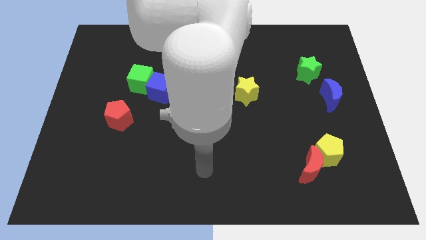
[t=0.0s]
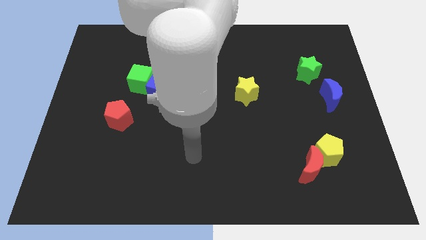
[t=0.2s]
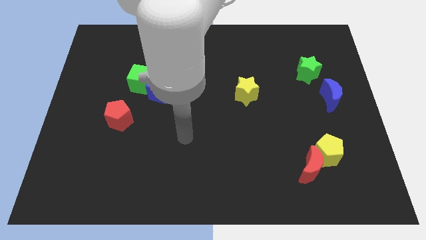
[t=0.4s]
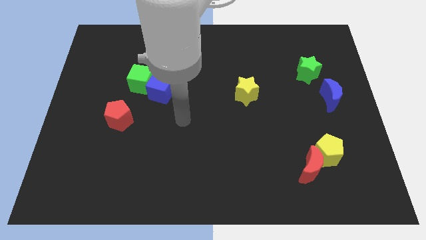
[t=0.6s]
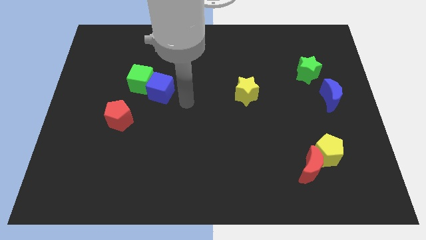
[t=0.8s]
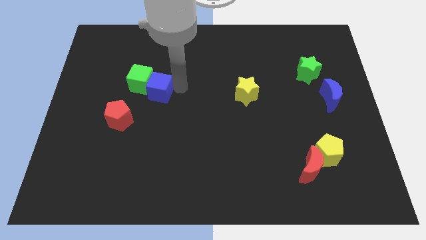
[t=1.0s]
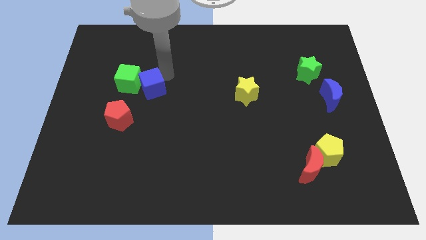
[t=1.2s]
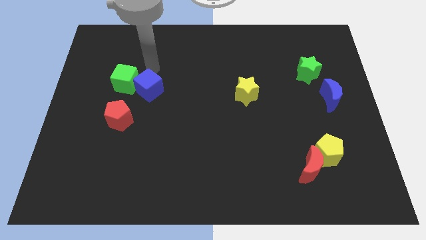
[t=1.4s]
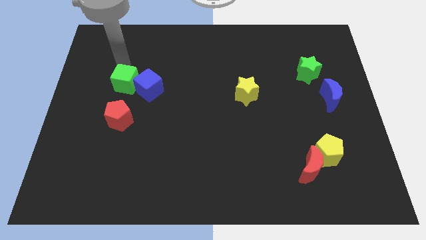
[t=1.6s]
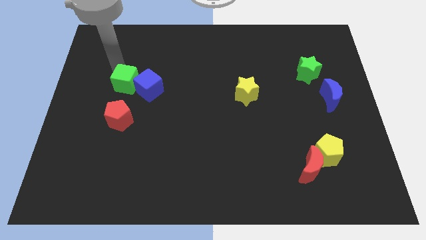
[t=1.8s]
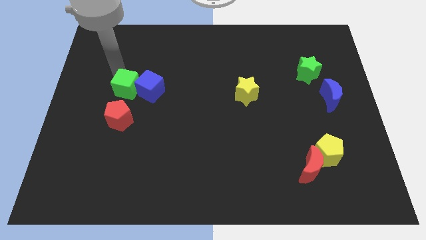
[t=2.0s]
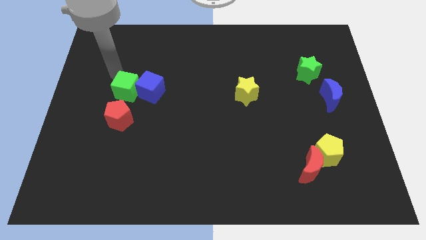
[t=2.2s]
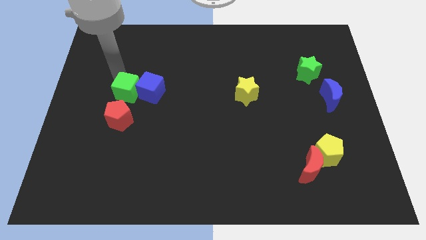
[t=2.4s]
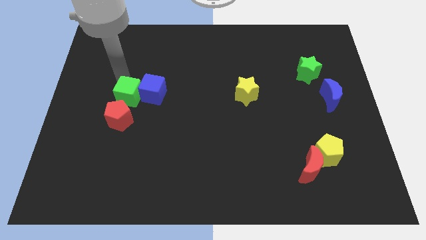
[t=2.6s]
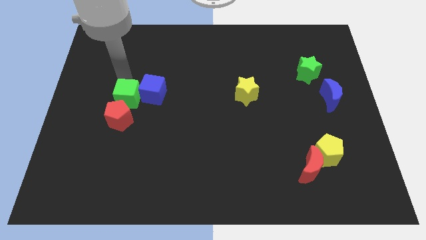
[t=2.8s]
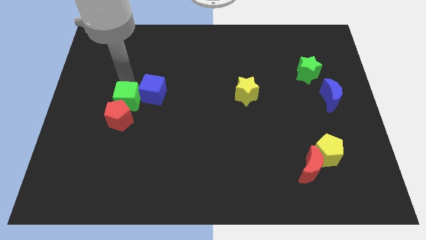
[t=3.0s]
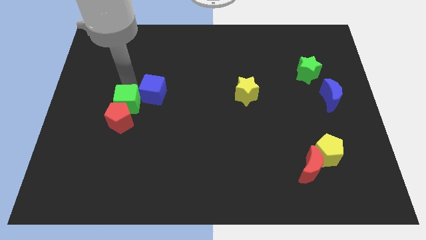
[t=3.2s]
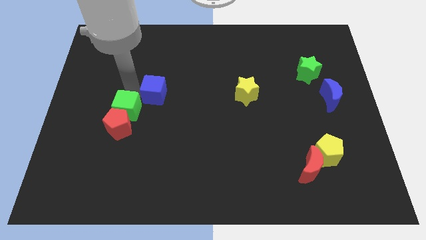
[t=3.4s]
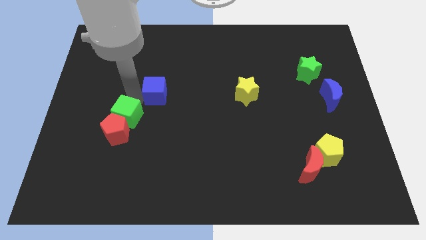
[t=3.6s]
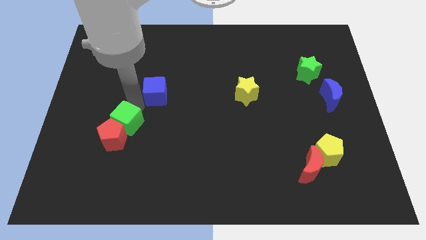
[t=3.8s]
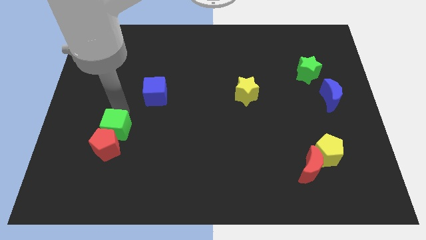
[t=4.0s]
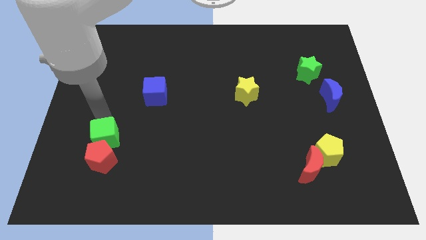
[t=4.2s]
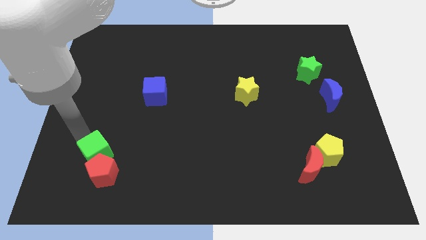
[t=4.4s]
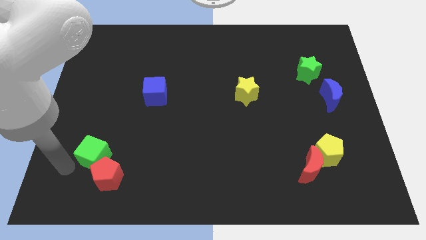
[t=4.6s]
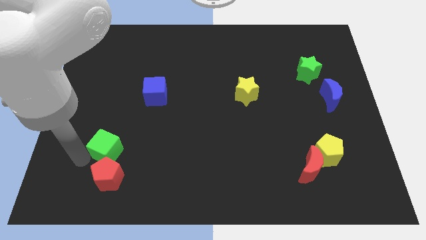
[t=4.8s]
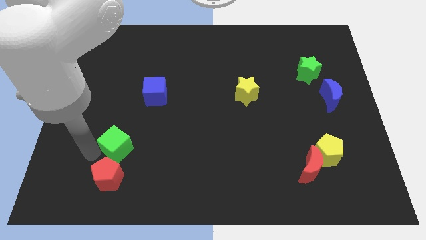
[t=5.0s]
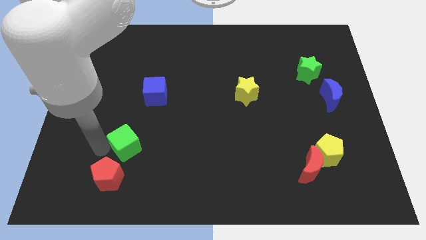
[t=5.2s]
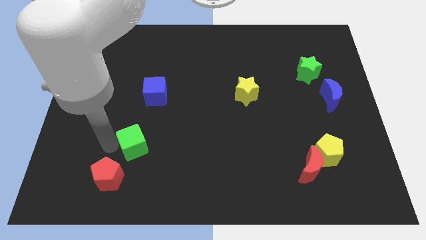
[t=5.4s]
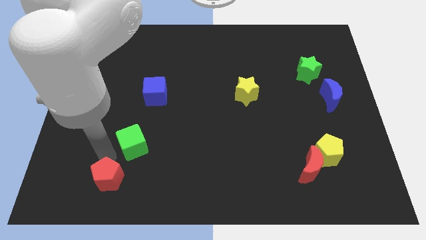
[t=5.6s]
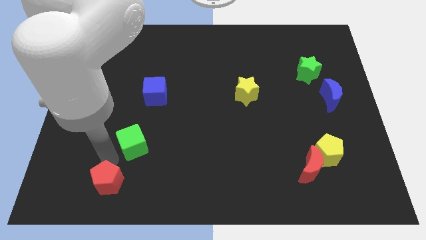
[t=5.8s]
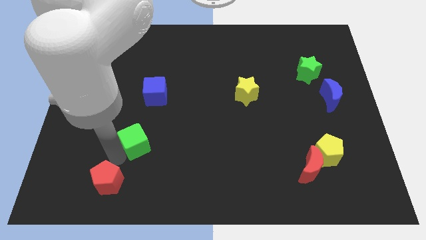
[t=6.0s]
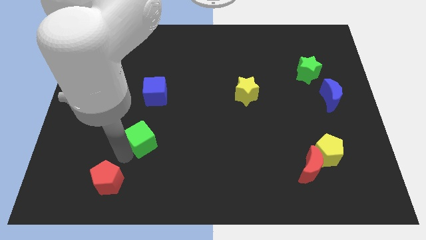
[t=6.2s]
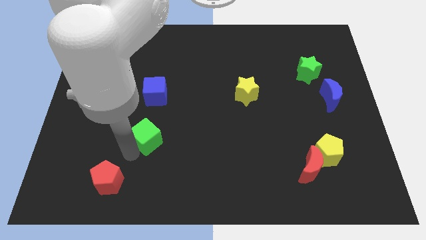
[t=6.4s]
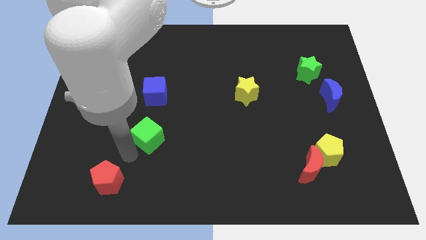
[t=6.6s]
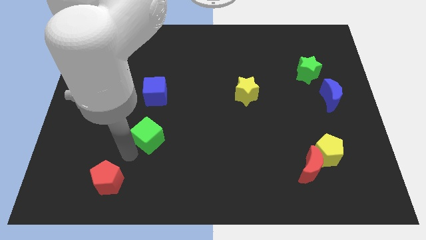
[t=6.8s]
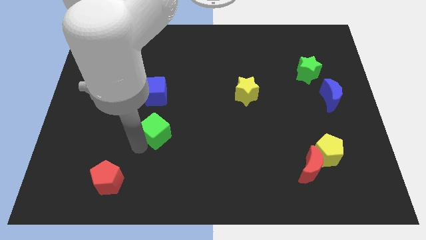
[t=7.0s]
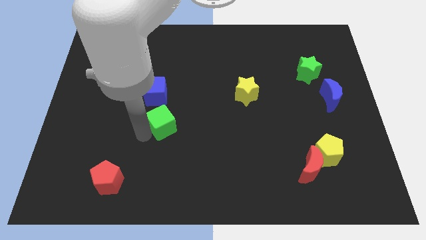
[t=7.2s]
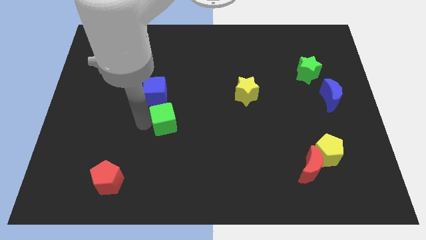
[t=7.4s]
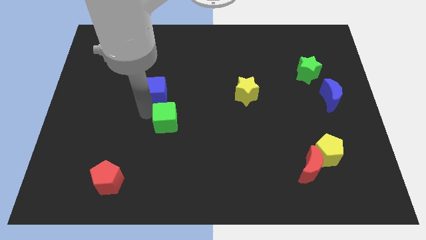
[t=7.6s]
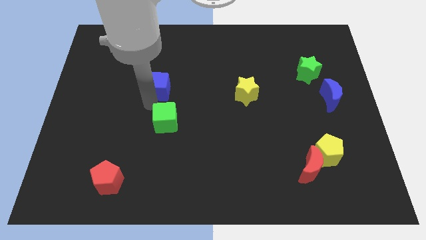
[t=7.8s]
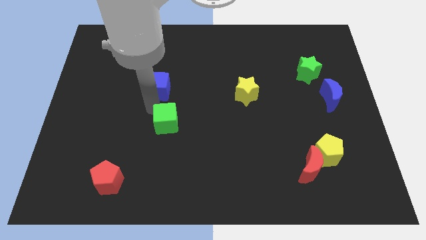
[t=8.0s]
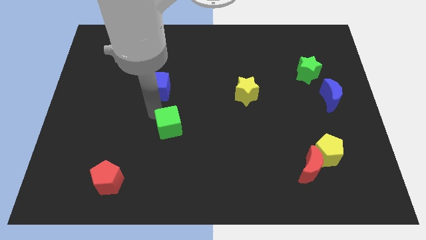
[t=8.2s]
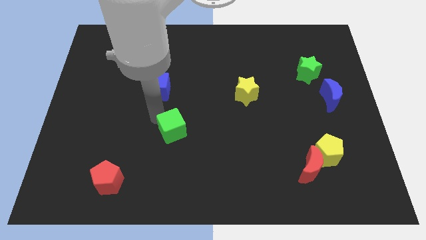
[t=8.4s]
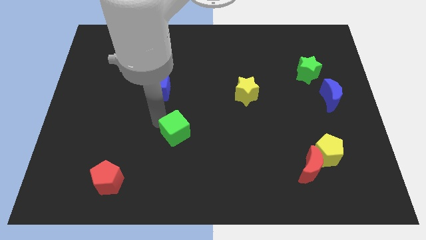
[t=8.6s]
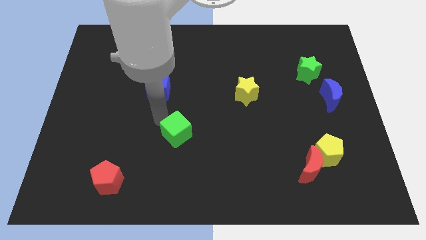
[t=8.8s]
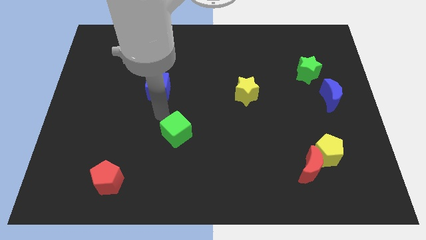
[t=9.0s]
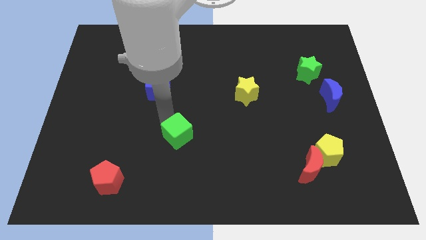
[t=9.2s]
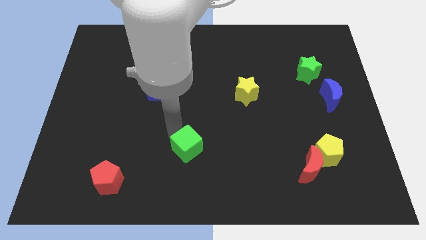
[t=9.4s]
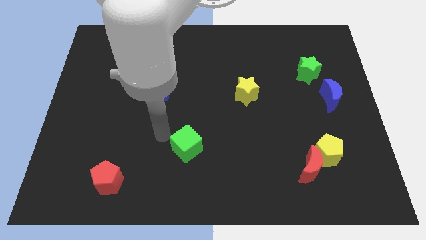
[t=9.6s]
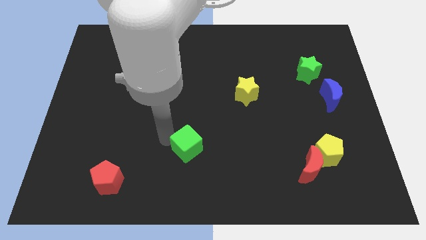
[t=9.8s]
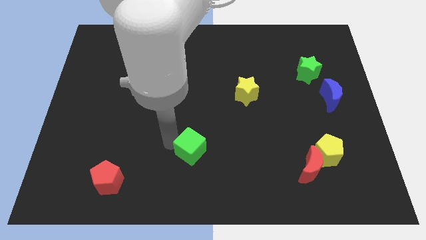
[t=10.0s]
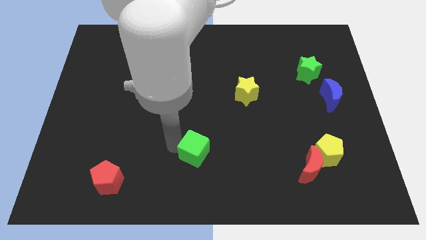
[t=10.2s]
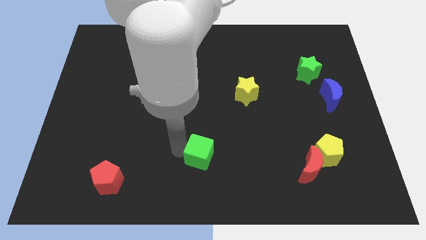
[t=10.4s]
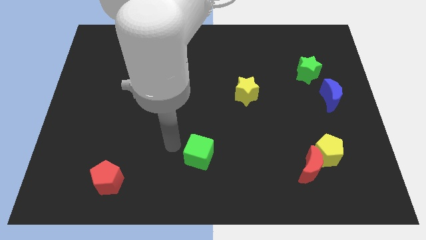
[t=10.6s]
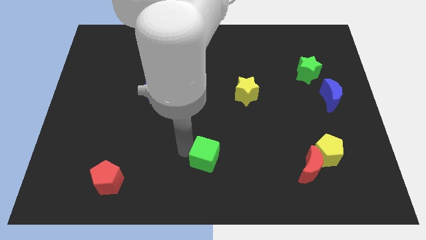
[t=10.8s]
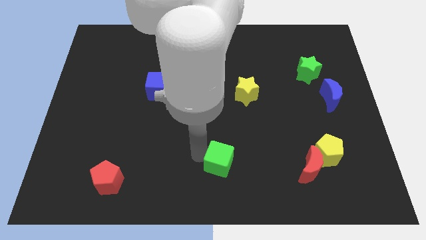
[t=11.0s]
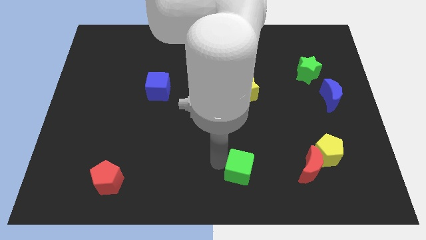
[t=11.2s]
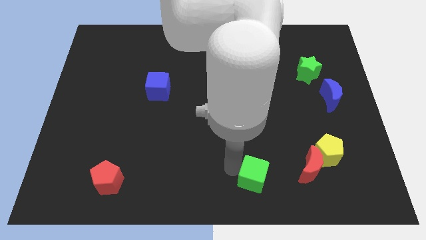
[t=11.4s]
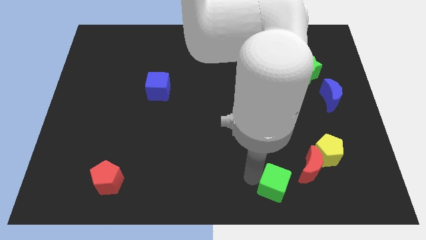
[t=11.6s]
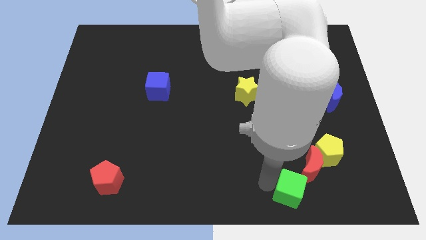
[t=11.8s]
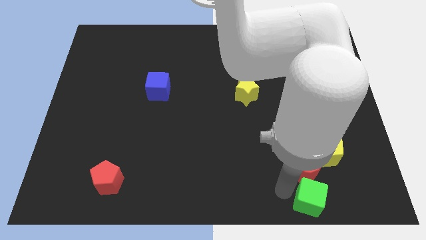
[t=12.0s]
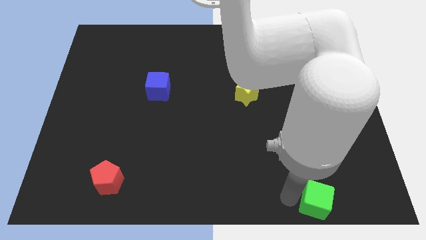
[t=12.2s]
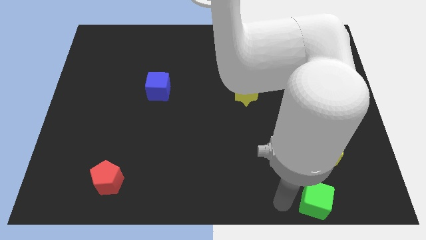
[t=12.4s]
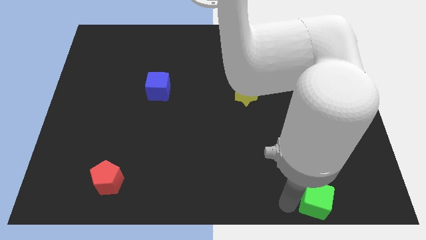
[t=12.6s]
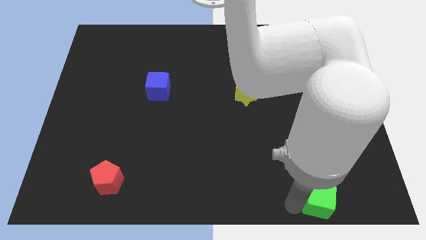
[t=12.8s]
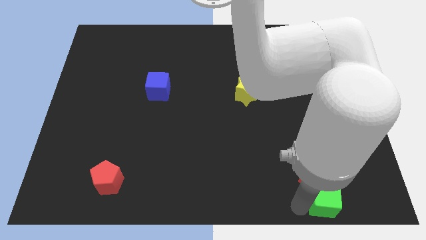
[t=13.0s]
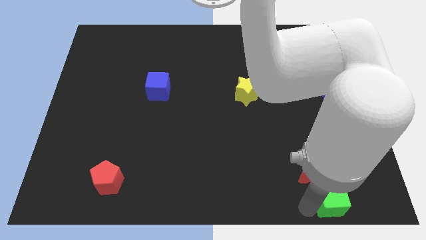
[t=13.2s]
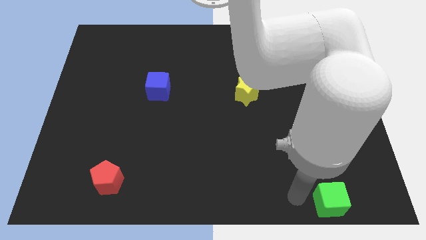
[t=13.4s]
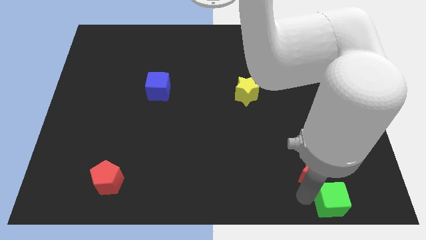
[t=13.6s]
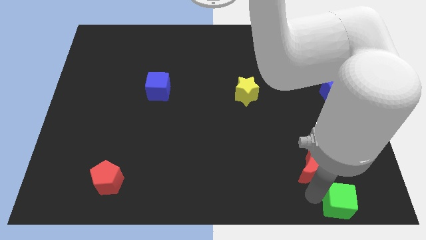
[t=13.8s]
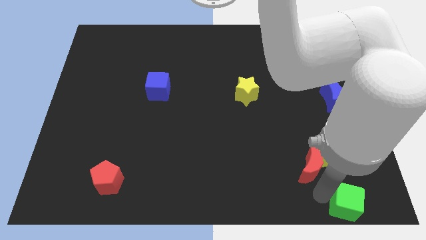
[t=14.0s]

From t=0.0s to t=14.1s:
move the green cube to the bottom right corner

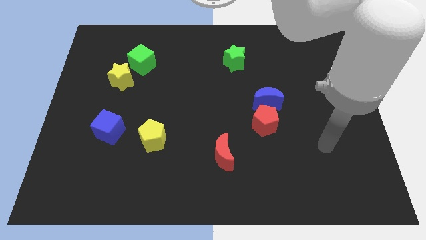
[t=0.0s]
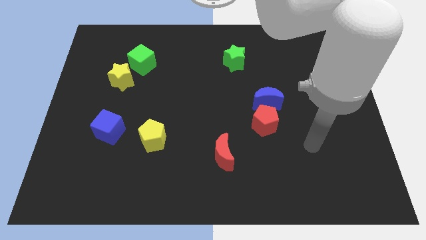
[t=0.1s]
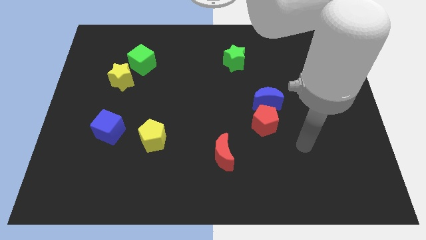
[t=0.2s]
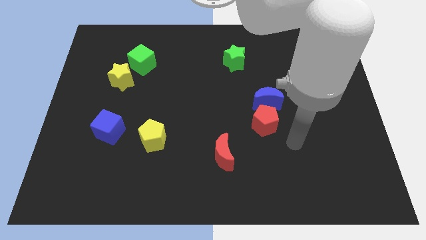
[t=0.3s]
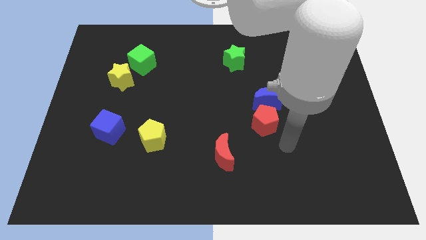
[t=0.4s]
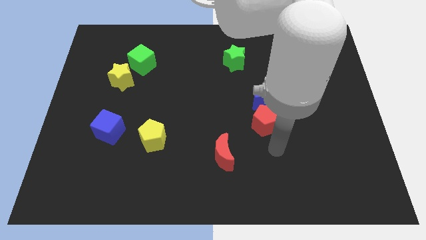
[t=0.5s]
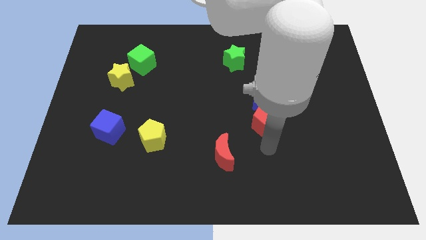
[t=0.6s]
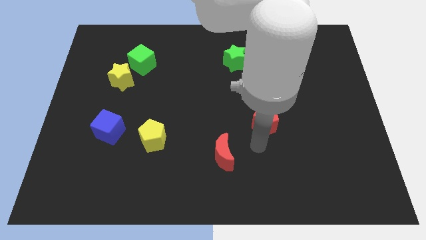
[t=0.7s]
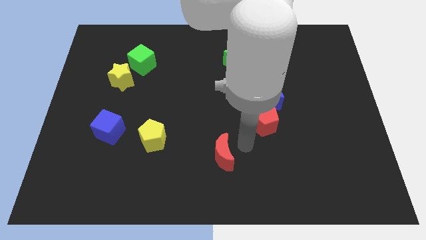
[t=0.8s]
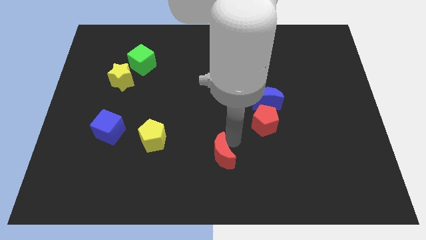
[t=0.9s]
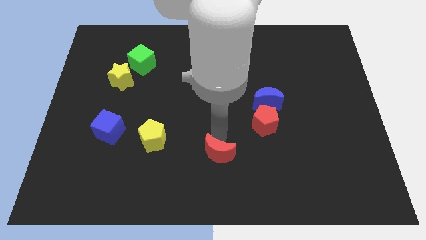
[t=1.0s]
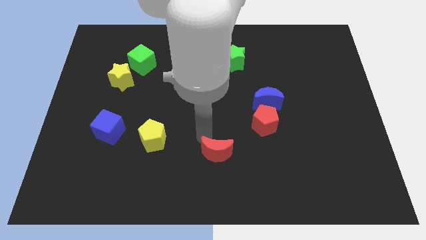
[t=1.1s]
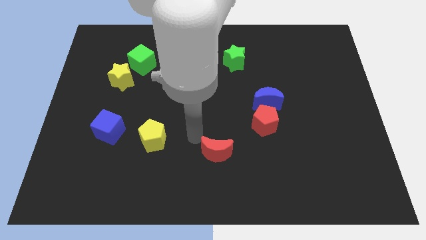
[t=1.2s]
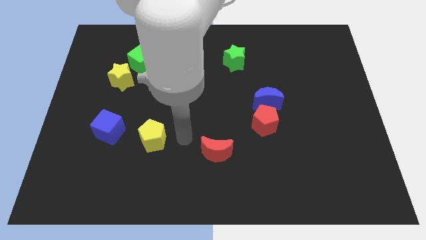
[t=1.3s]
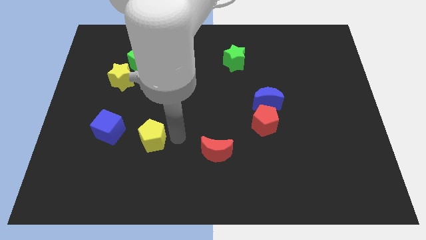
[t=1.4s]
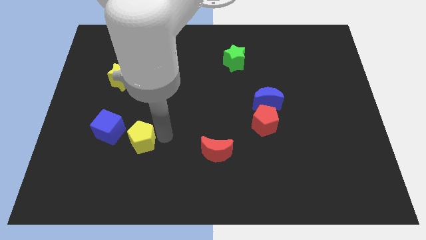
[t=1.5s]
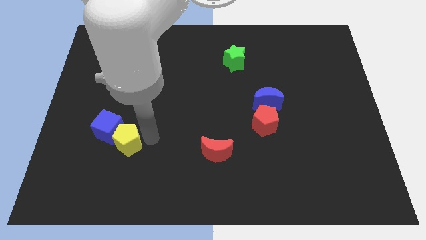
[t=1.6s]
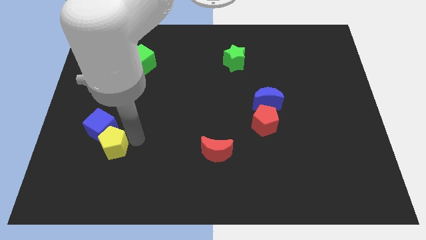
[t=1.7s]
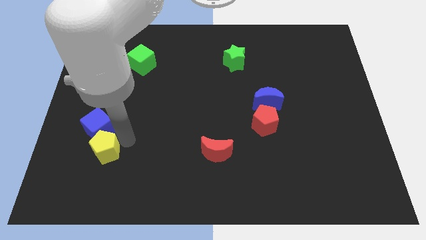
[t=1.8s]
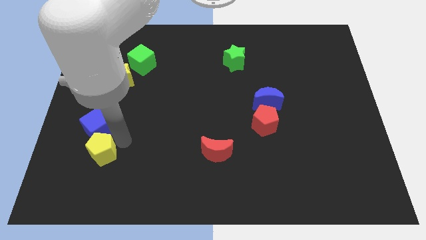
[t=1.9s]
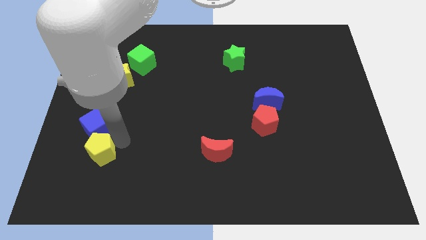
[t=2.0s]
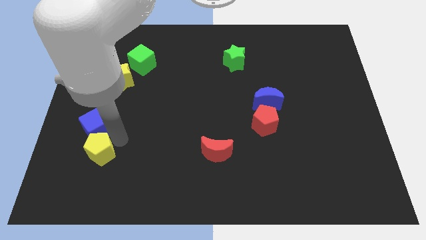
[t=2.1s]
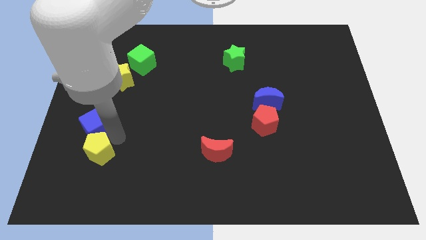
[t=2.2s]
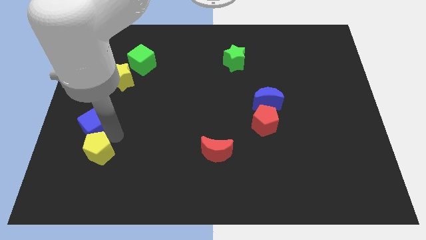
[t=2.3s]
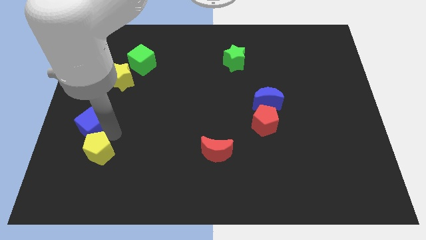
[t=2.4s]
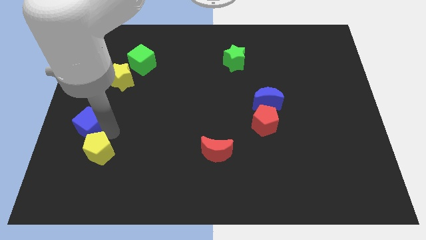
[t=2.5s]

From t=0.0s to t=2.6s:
push the blue cube to the left side of the board
